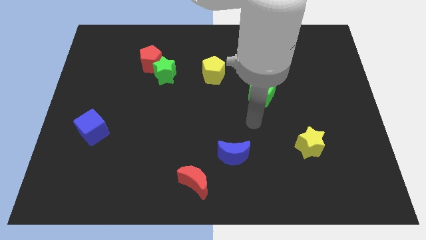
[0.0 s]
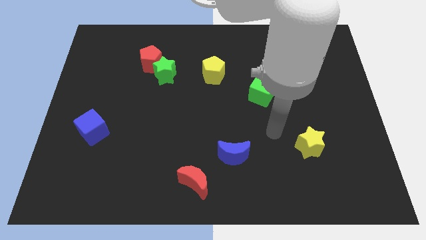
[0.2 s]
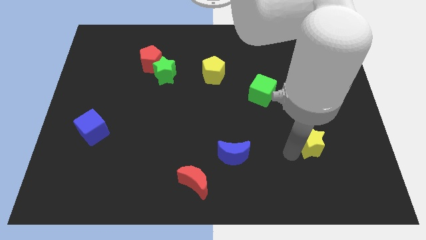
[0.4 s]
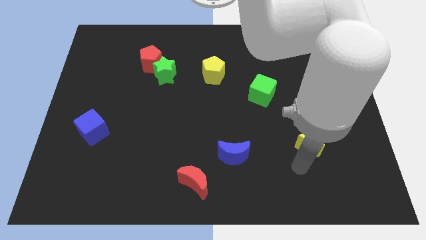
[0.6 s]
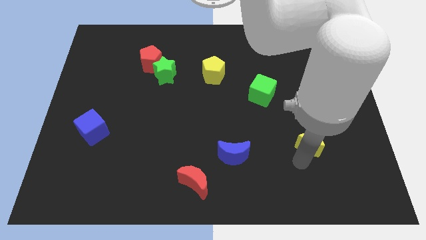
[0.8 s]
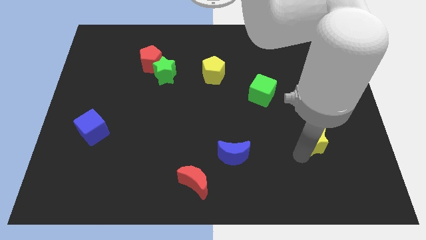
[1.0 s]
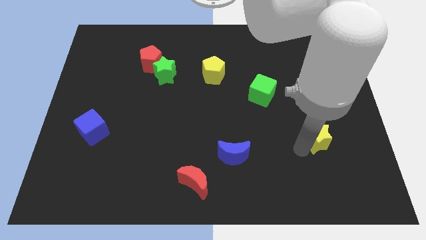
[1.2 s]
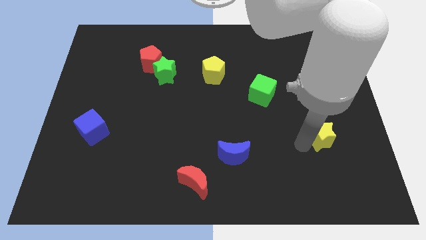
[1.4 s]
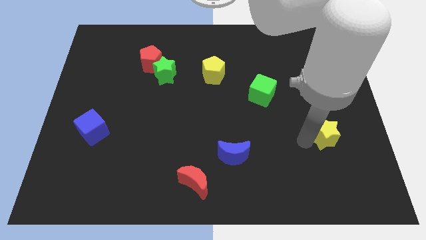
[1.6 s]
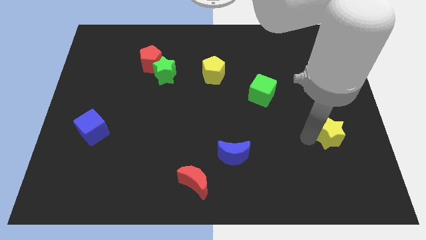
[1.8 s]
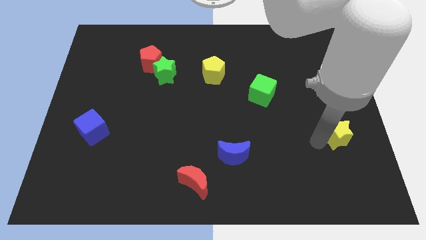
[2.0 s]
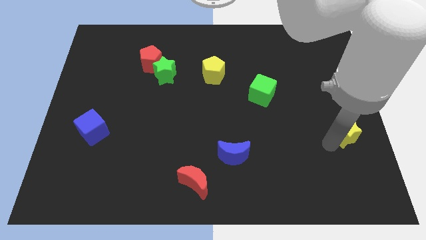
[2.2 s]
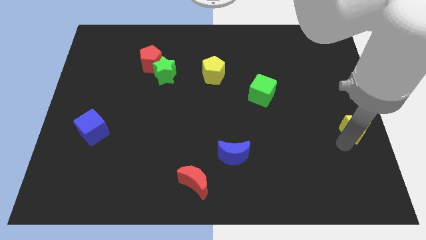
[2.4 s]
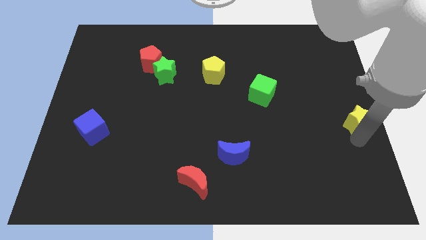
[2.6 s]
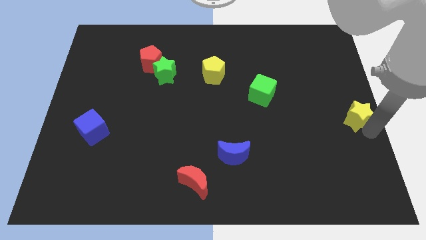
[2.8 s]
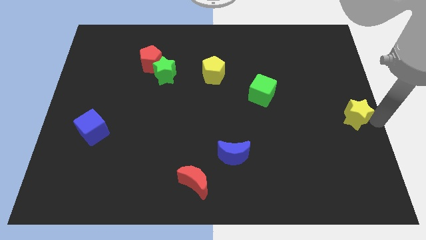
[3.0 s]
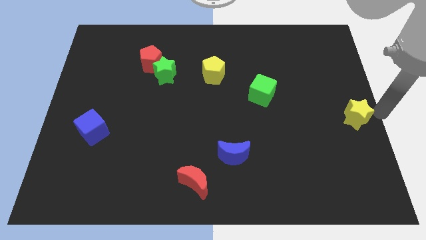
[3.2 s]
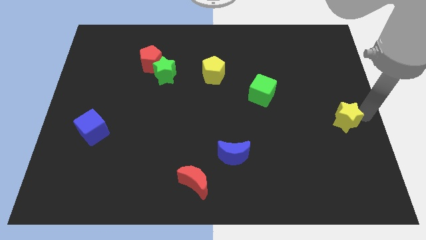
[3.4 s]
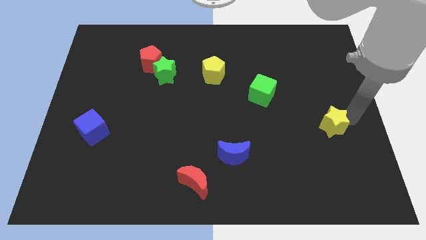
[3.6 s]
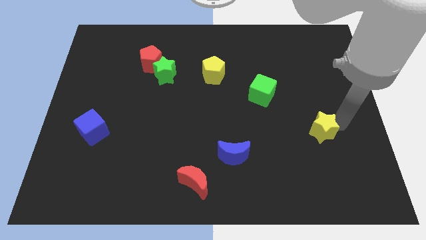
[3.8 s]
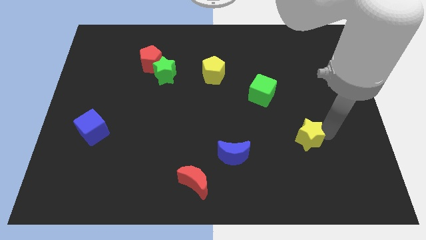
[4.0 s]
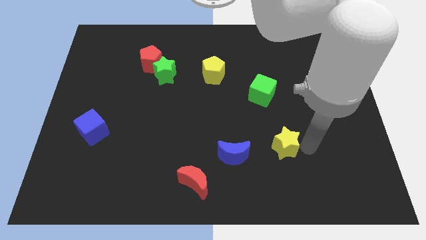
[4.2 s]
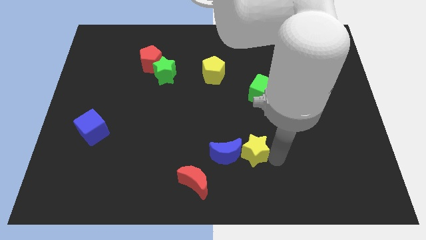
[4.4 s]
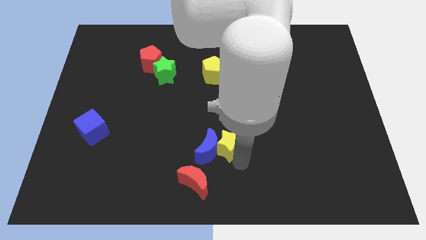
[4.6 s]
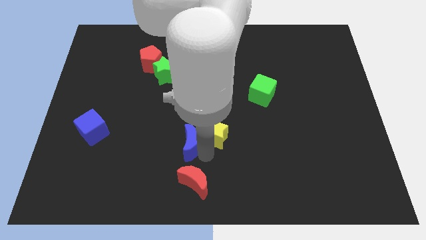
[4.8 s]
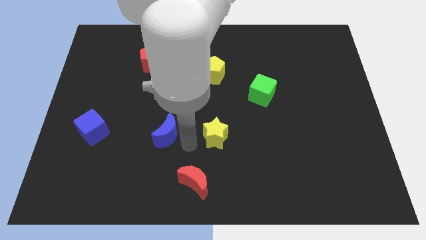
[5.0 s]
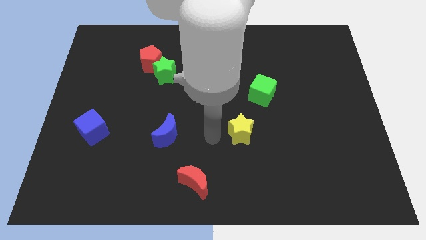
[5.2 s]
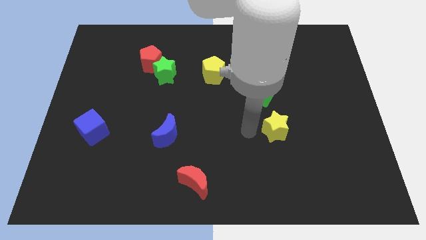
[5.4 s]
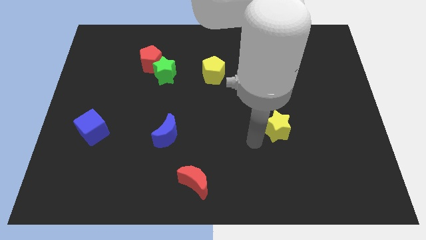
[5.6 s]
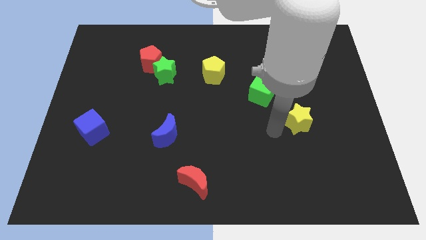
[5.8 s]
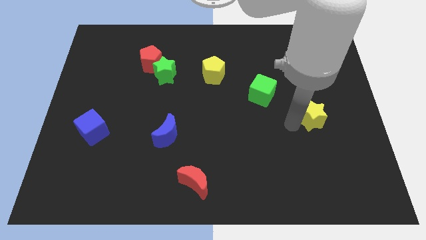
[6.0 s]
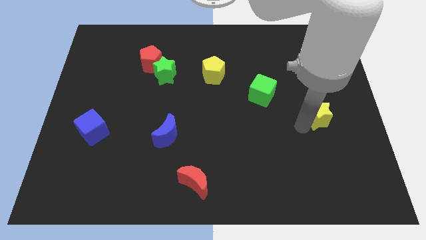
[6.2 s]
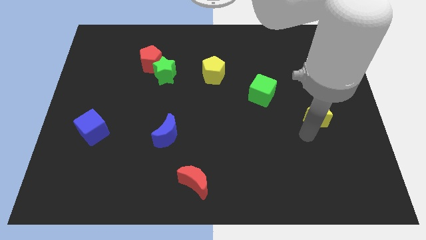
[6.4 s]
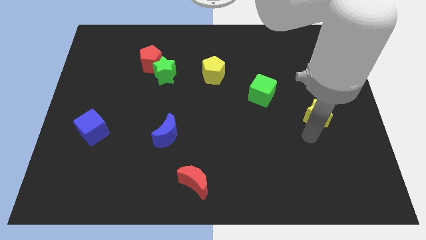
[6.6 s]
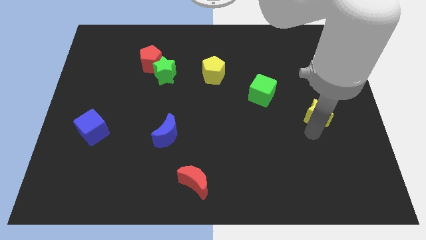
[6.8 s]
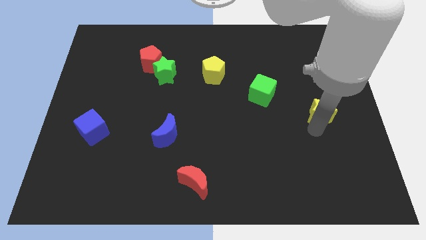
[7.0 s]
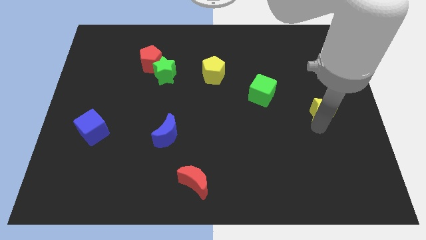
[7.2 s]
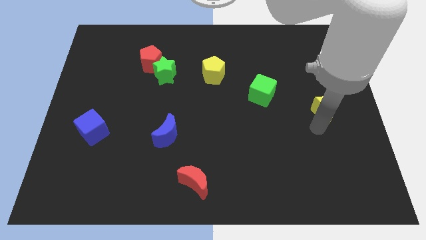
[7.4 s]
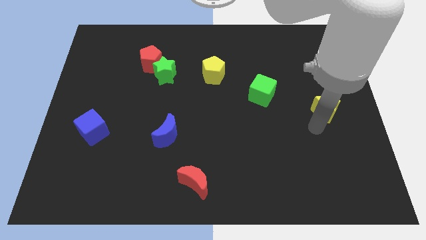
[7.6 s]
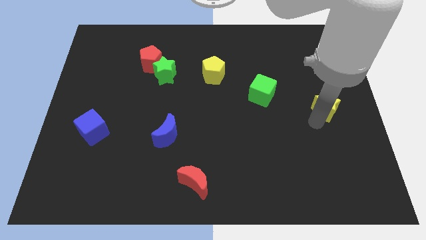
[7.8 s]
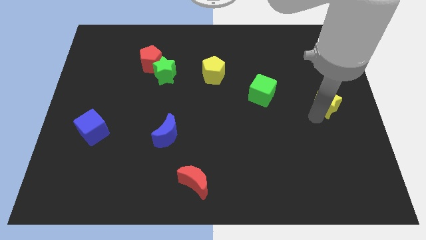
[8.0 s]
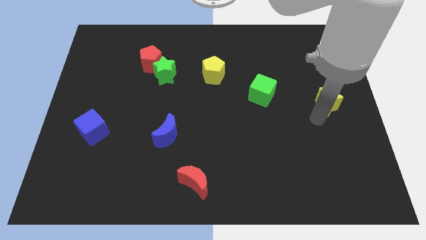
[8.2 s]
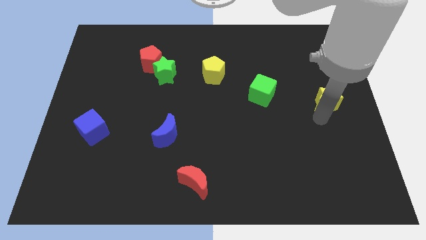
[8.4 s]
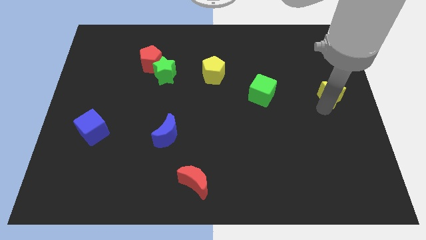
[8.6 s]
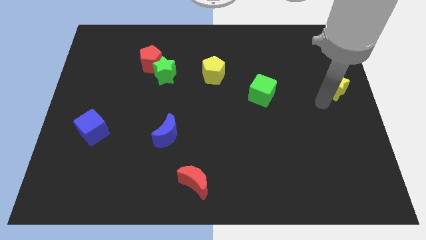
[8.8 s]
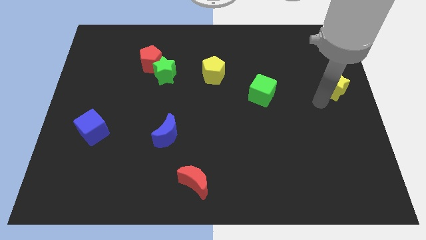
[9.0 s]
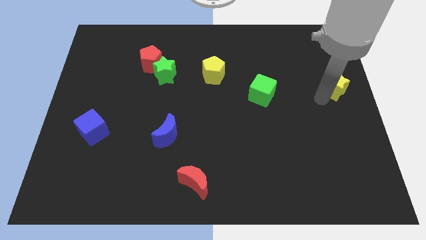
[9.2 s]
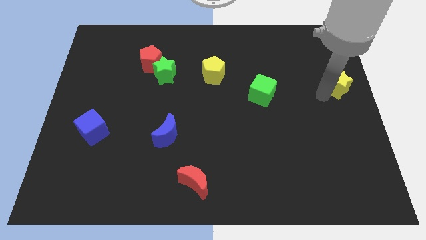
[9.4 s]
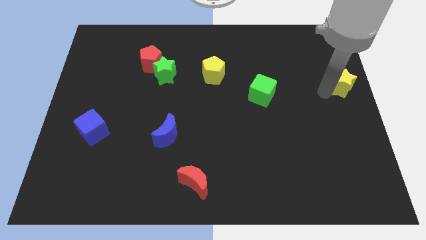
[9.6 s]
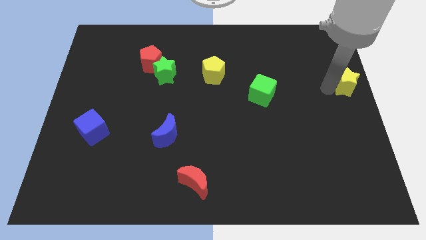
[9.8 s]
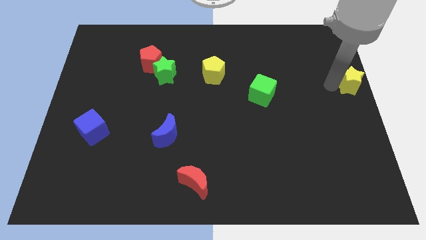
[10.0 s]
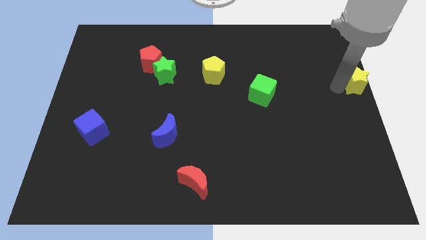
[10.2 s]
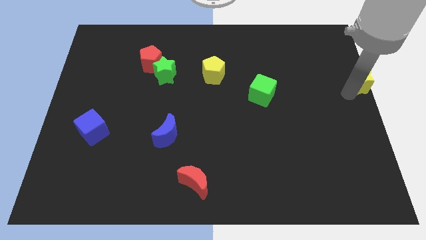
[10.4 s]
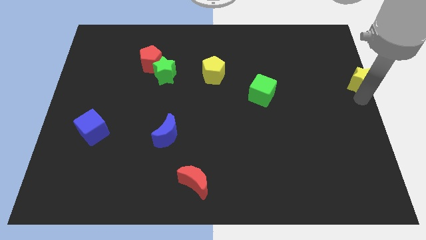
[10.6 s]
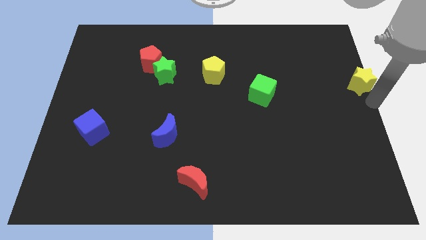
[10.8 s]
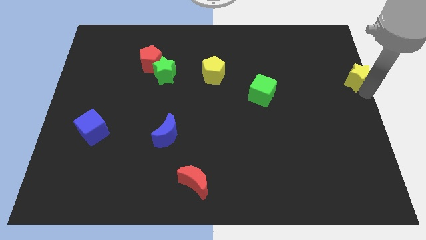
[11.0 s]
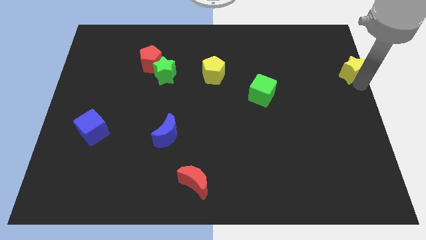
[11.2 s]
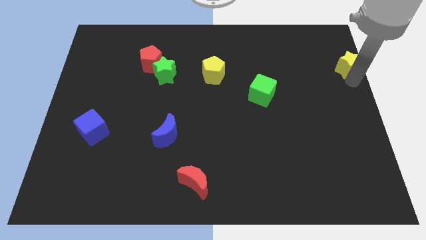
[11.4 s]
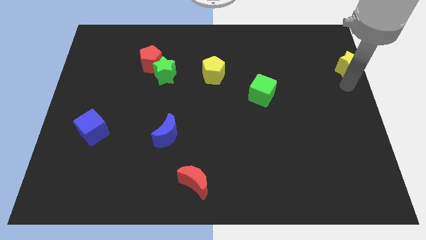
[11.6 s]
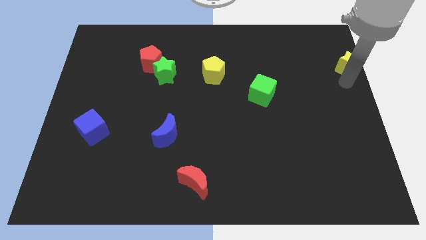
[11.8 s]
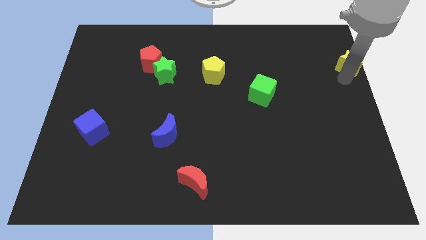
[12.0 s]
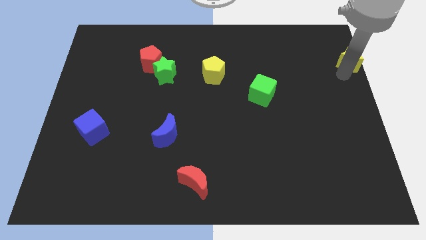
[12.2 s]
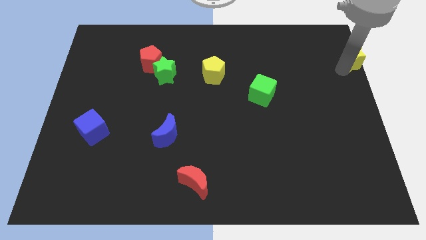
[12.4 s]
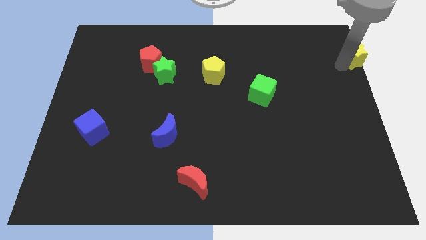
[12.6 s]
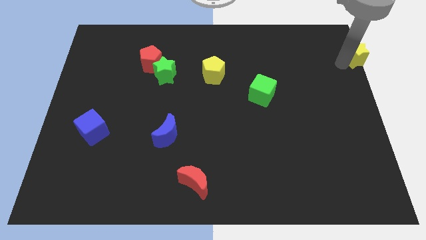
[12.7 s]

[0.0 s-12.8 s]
slide the yellow star to the upper right corner
